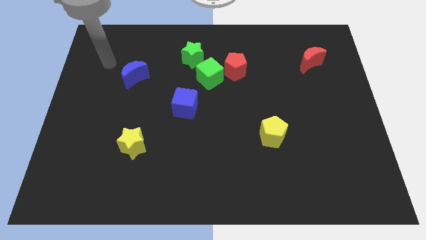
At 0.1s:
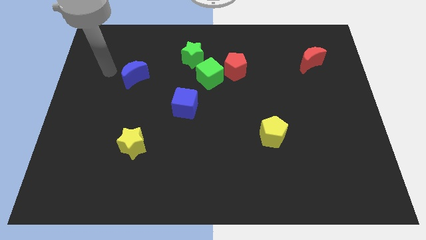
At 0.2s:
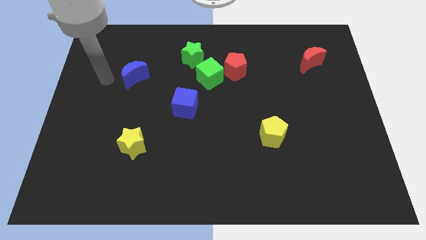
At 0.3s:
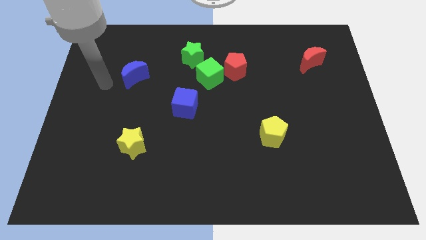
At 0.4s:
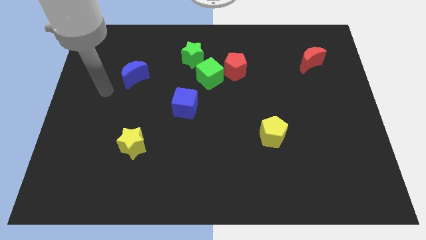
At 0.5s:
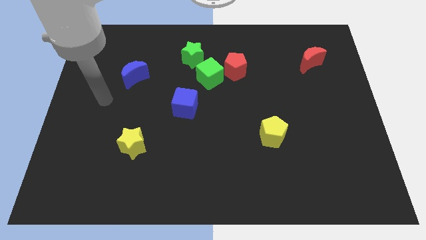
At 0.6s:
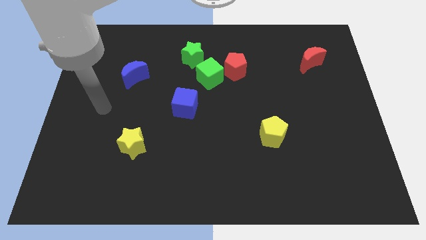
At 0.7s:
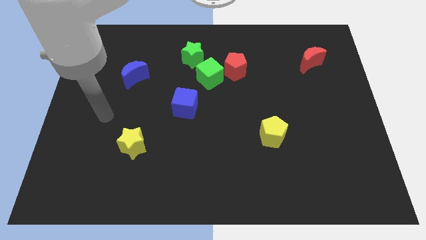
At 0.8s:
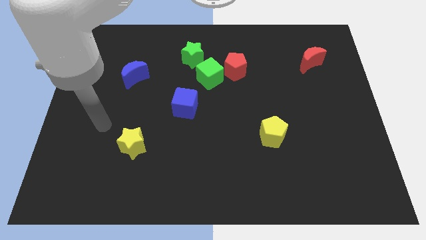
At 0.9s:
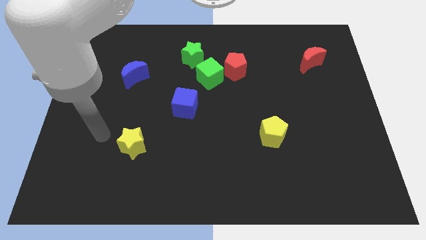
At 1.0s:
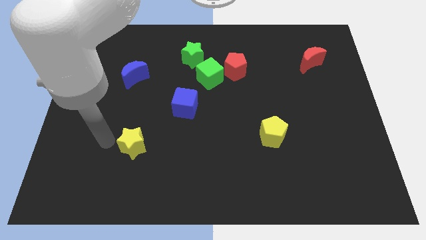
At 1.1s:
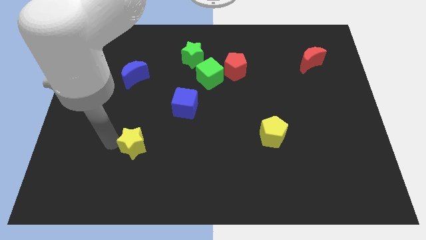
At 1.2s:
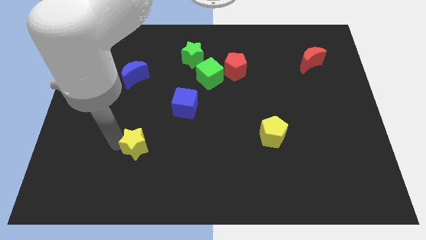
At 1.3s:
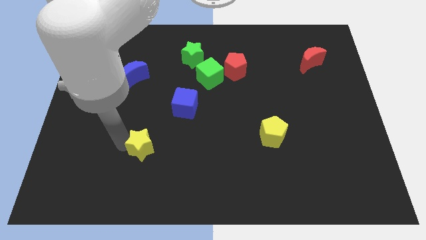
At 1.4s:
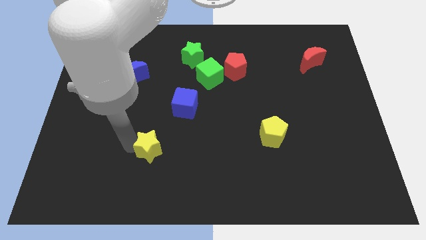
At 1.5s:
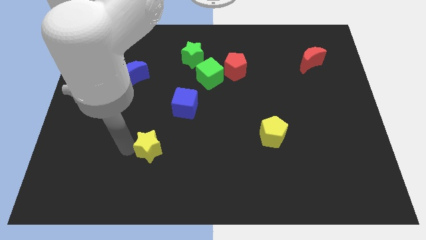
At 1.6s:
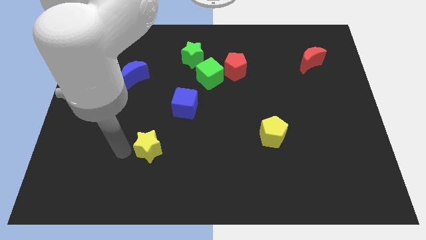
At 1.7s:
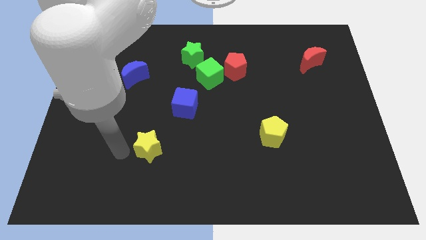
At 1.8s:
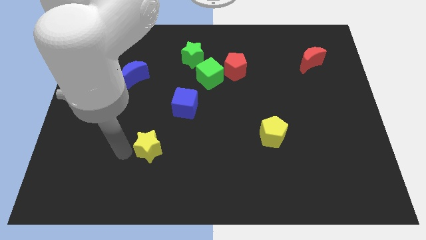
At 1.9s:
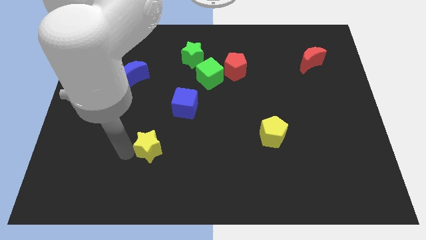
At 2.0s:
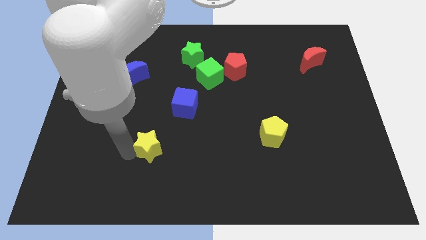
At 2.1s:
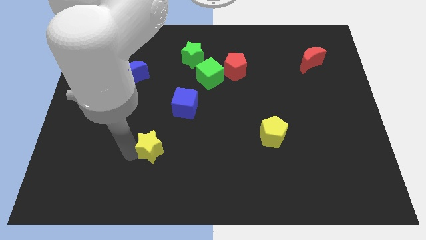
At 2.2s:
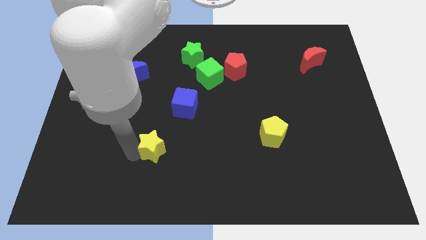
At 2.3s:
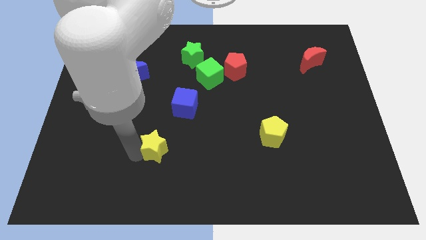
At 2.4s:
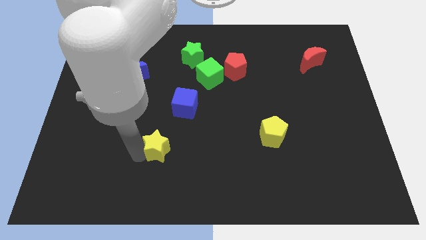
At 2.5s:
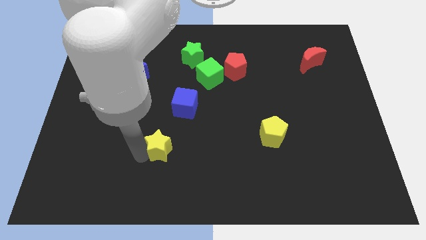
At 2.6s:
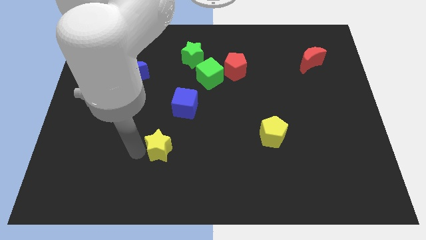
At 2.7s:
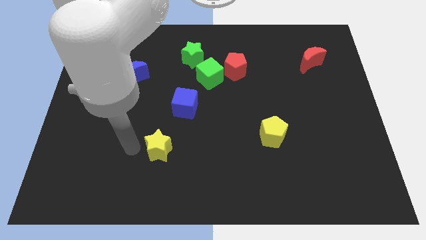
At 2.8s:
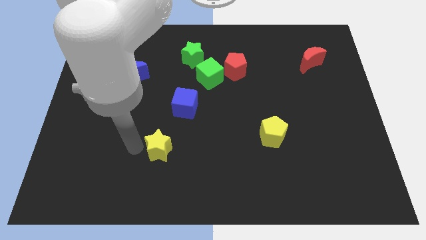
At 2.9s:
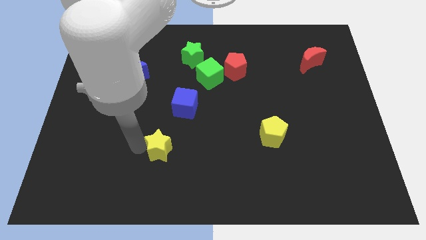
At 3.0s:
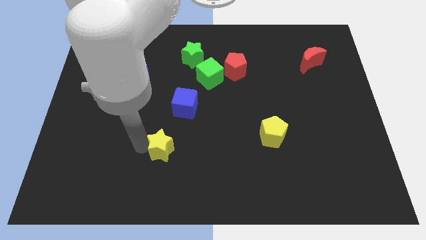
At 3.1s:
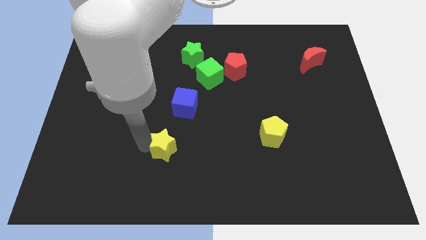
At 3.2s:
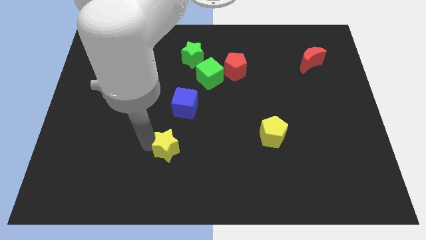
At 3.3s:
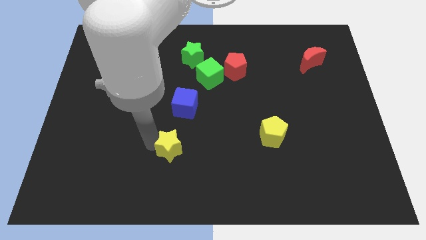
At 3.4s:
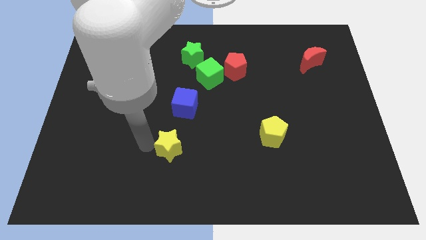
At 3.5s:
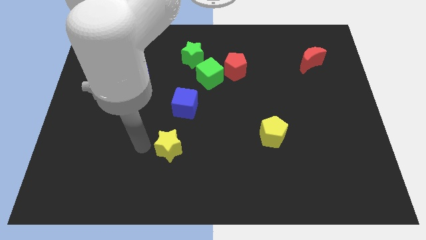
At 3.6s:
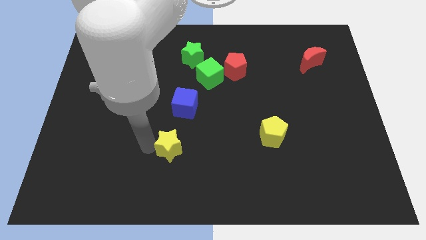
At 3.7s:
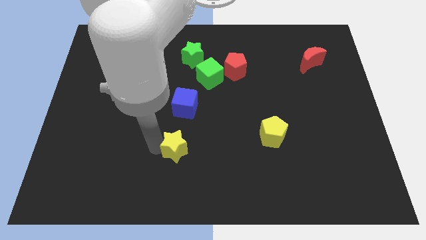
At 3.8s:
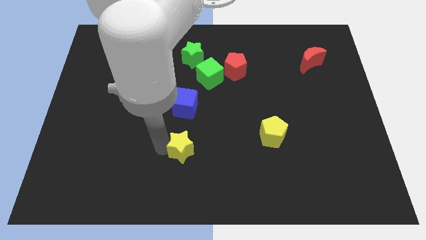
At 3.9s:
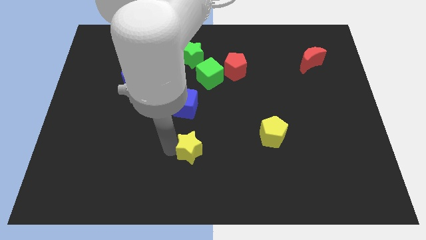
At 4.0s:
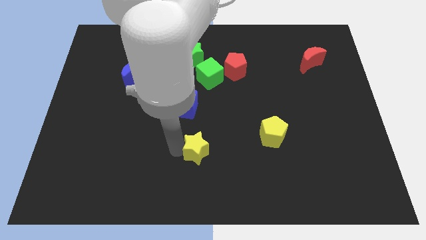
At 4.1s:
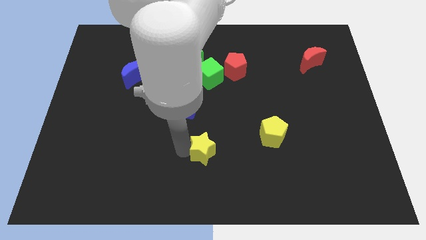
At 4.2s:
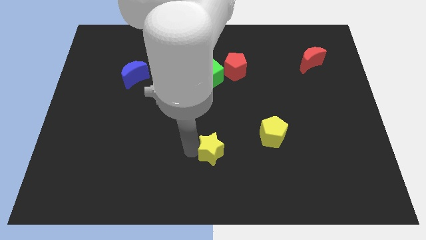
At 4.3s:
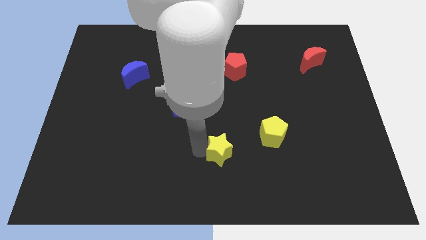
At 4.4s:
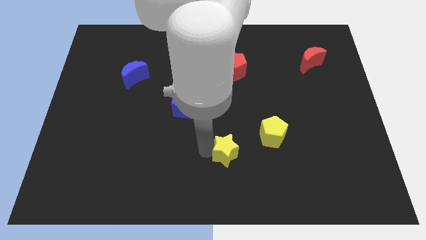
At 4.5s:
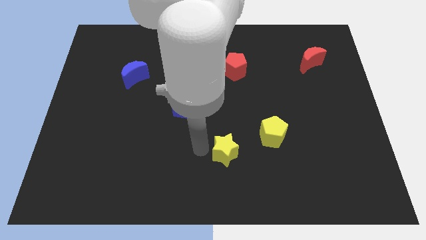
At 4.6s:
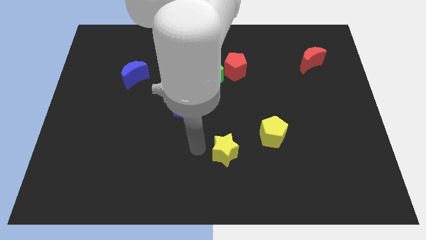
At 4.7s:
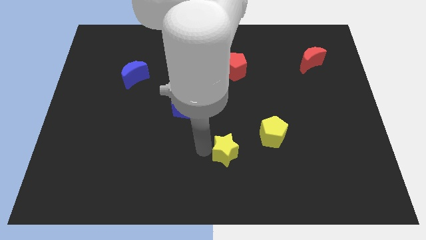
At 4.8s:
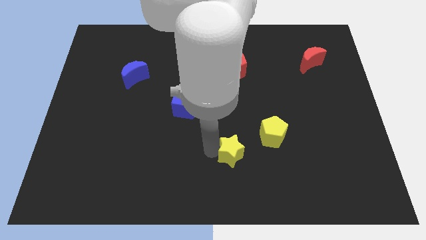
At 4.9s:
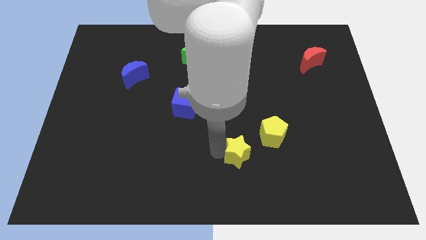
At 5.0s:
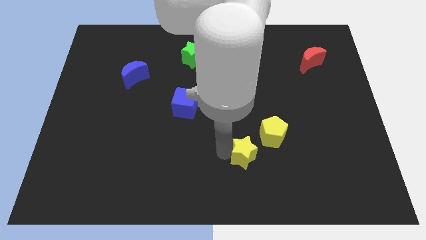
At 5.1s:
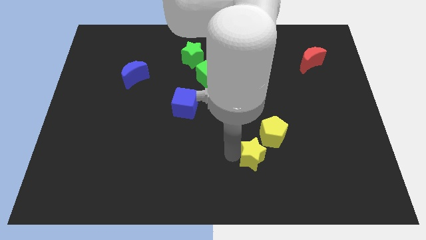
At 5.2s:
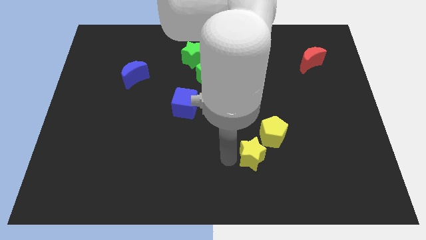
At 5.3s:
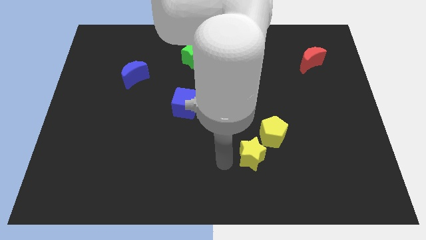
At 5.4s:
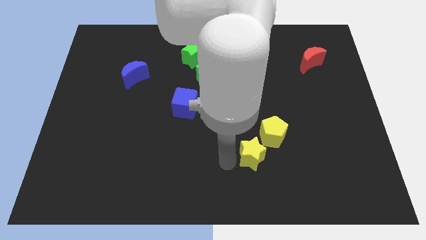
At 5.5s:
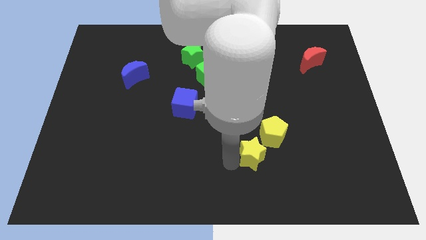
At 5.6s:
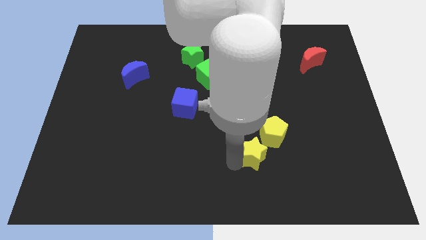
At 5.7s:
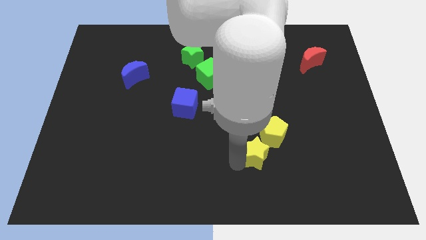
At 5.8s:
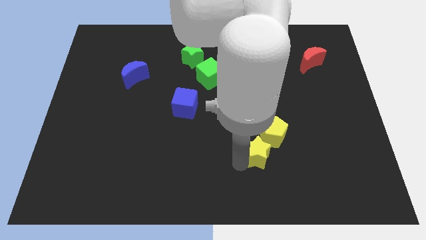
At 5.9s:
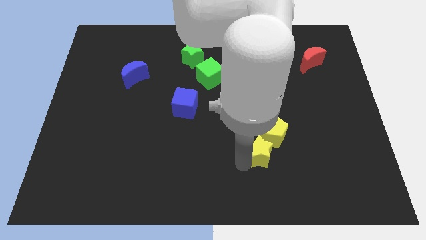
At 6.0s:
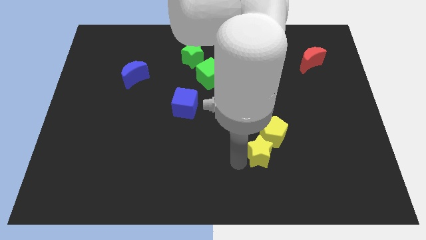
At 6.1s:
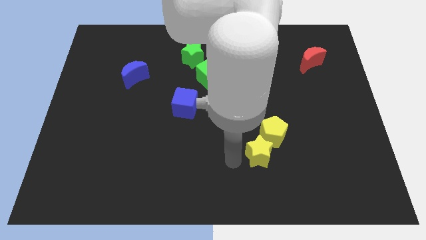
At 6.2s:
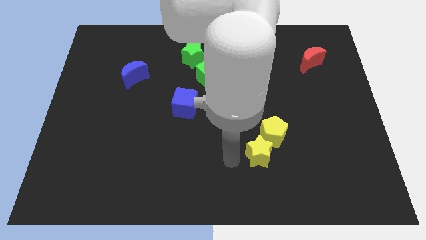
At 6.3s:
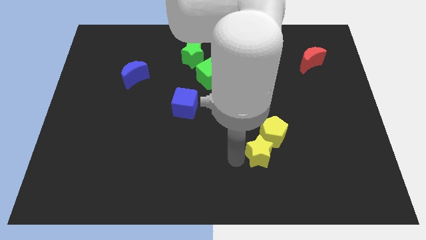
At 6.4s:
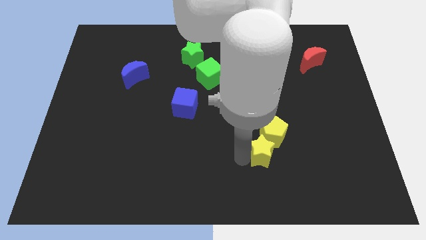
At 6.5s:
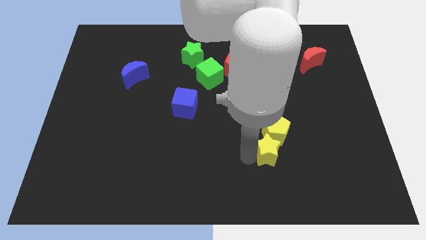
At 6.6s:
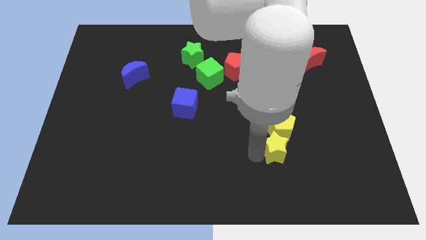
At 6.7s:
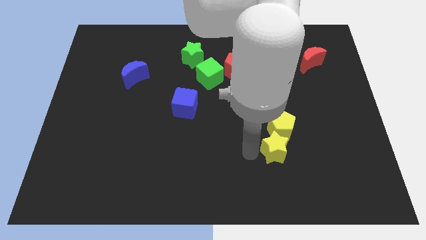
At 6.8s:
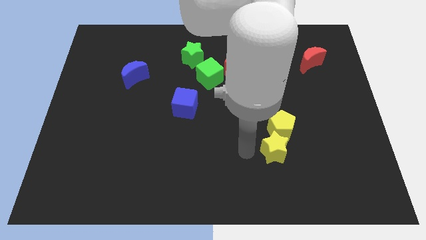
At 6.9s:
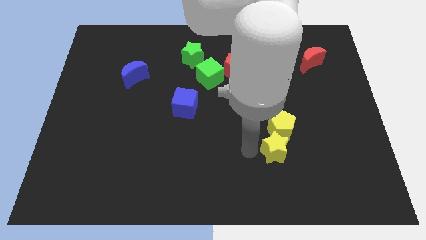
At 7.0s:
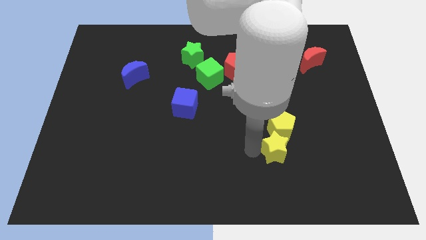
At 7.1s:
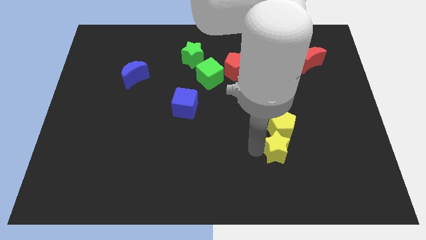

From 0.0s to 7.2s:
slide the yellow star diagonally down and to the right of the yellow pentagon

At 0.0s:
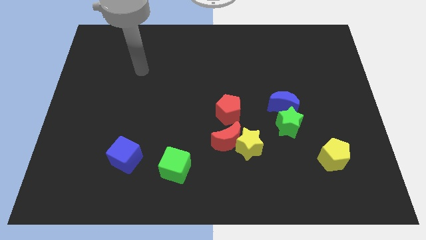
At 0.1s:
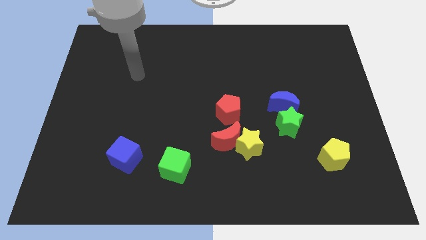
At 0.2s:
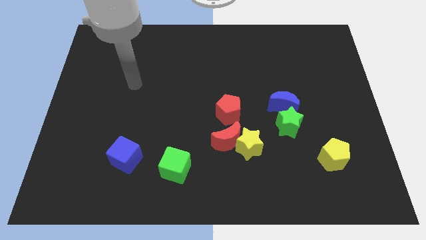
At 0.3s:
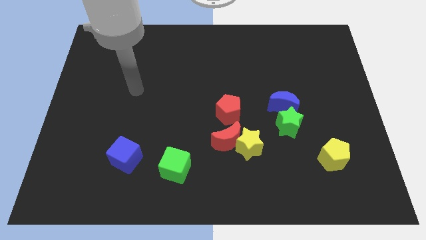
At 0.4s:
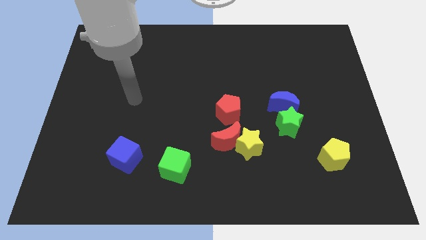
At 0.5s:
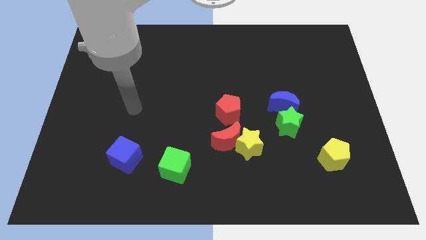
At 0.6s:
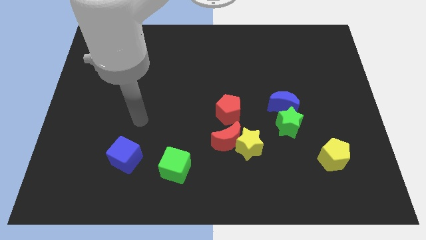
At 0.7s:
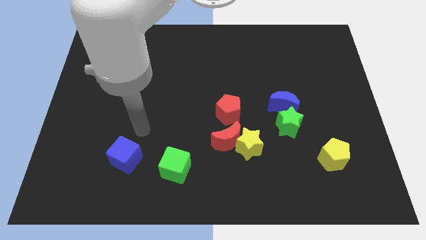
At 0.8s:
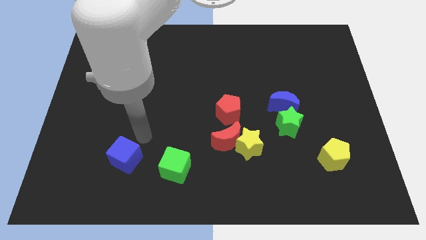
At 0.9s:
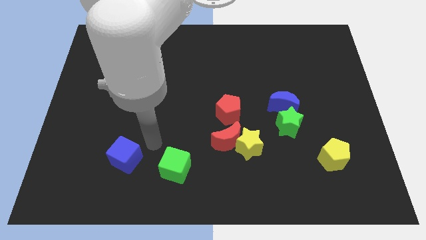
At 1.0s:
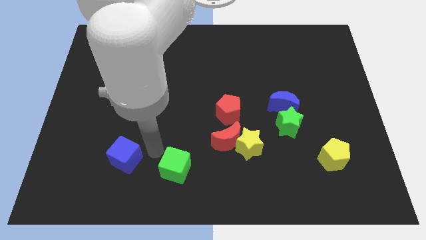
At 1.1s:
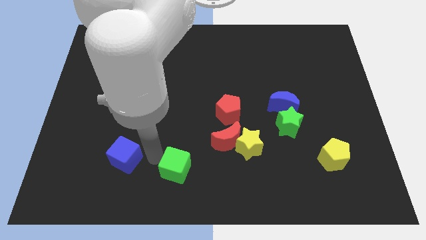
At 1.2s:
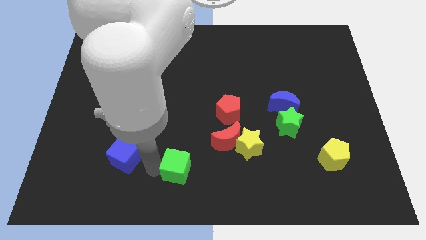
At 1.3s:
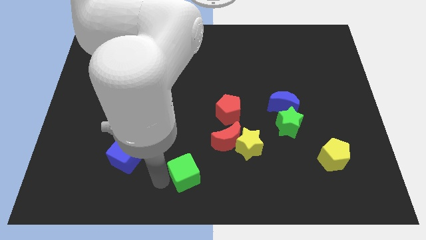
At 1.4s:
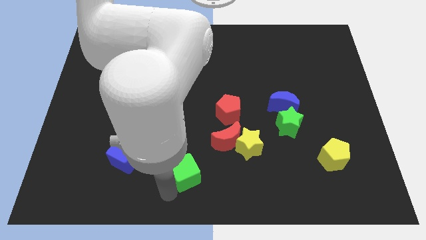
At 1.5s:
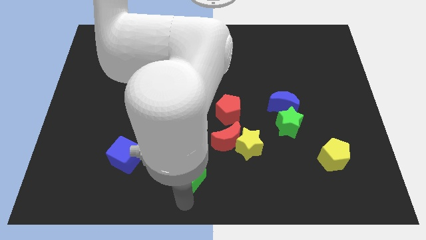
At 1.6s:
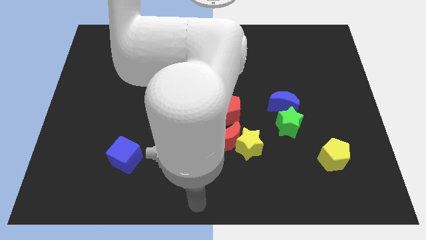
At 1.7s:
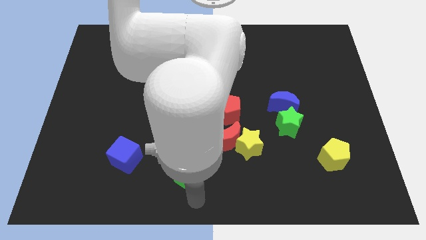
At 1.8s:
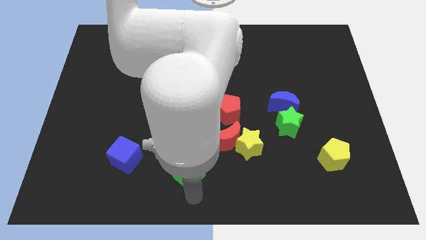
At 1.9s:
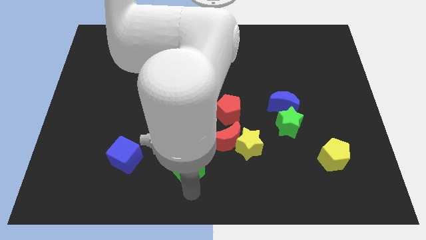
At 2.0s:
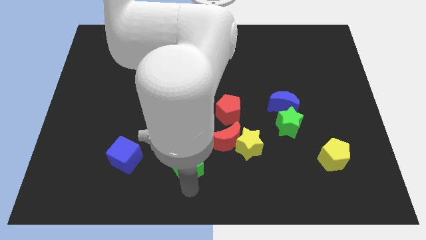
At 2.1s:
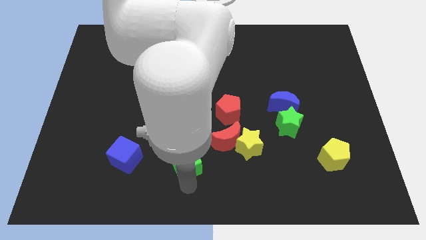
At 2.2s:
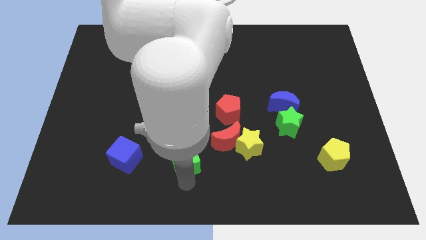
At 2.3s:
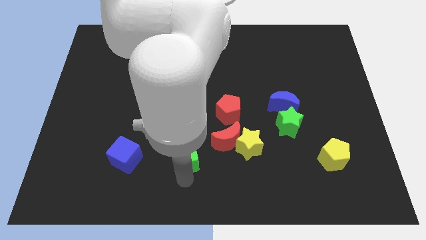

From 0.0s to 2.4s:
put the green cube just left of the red moon
